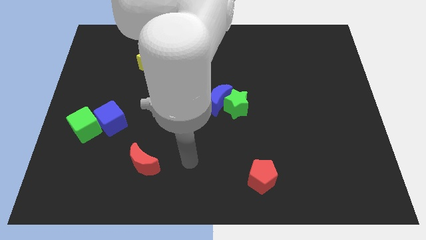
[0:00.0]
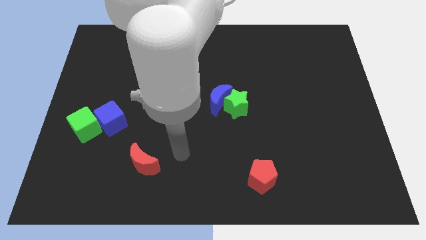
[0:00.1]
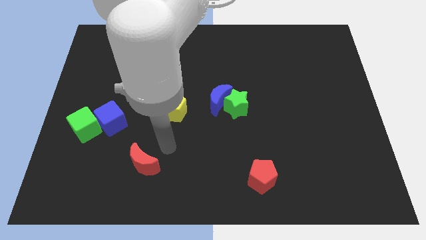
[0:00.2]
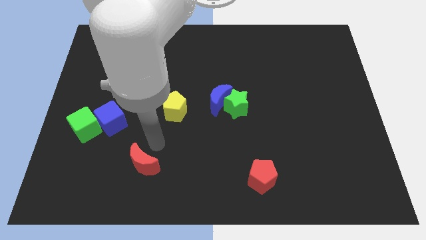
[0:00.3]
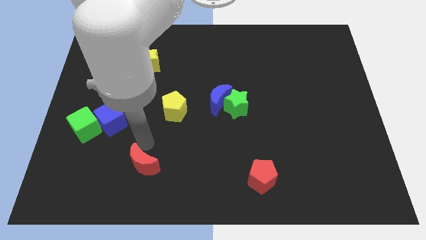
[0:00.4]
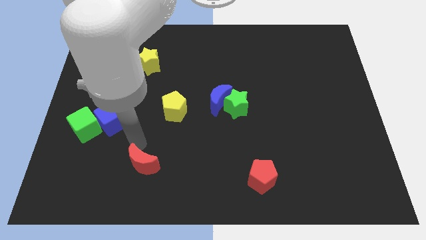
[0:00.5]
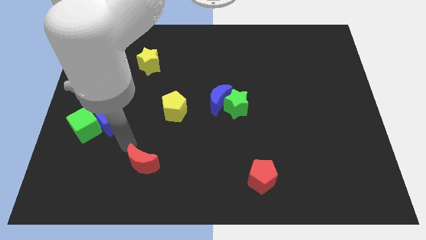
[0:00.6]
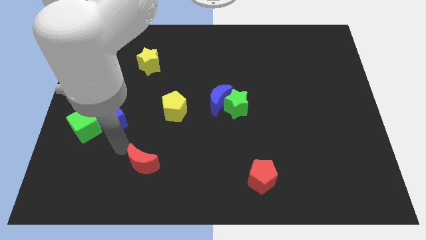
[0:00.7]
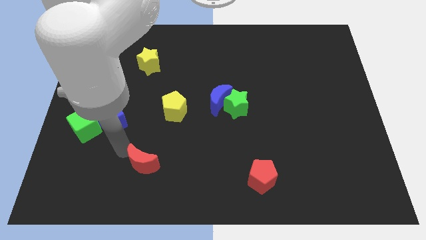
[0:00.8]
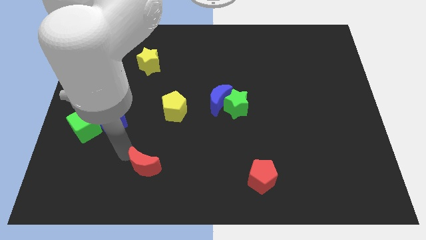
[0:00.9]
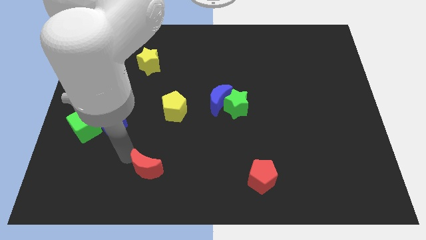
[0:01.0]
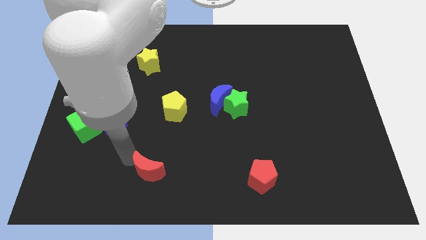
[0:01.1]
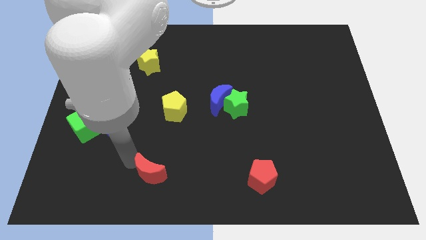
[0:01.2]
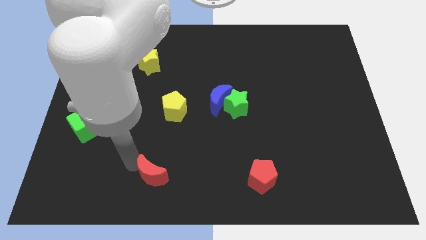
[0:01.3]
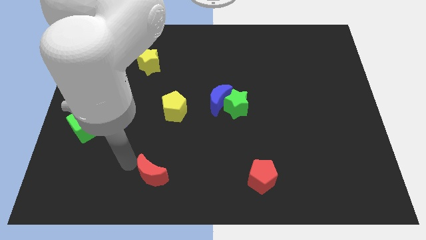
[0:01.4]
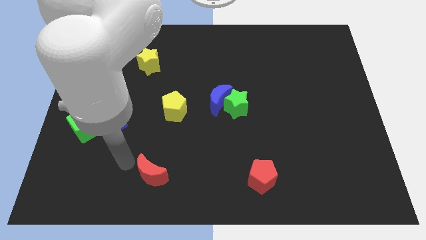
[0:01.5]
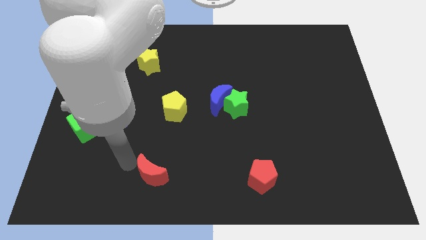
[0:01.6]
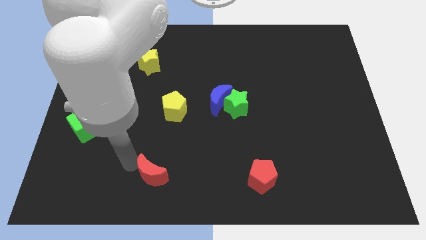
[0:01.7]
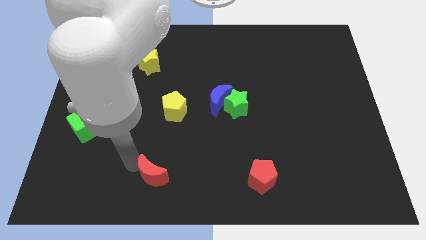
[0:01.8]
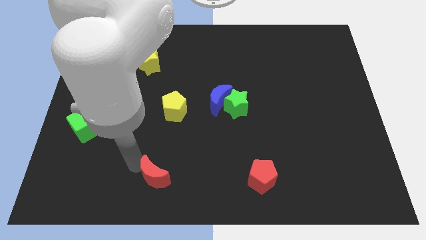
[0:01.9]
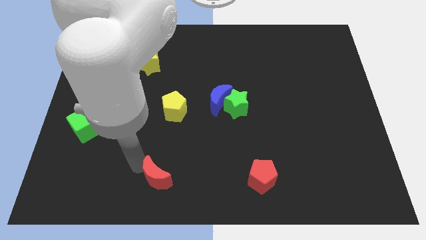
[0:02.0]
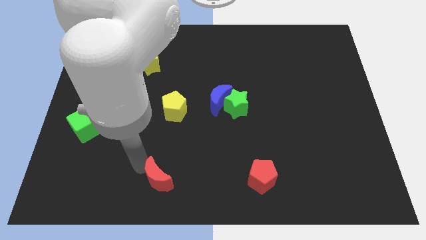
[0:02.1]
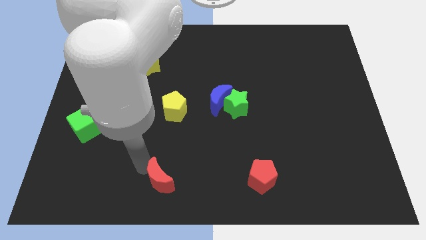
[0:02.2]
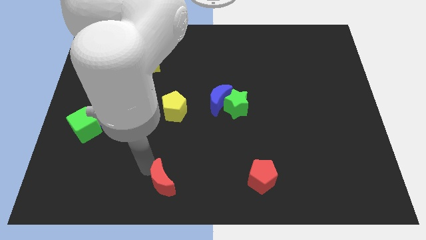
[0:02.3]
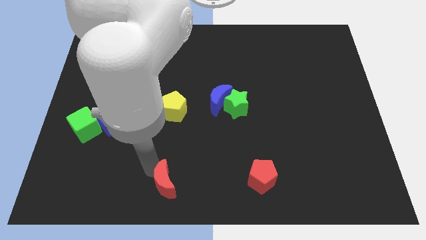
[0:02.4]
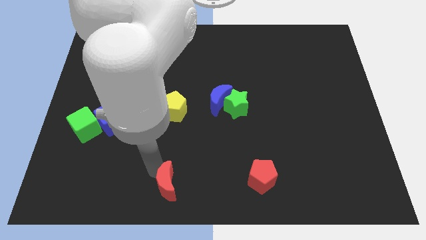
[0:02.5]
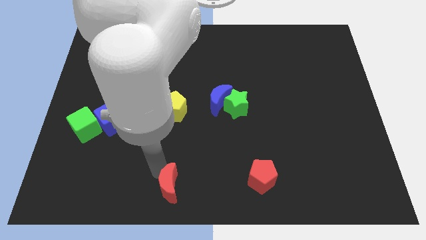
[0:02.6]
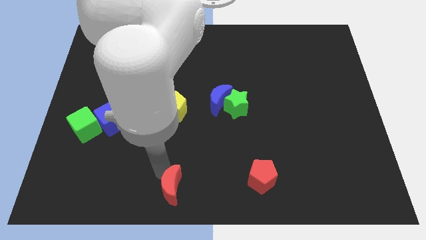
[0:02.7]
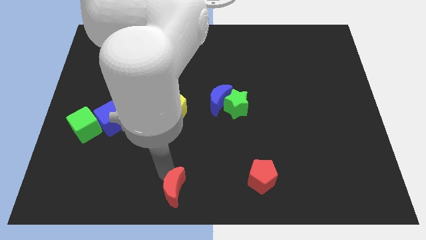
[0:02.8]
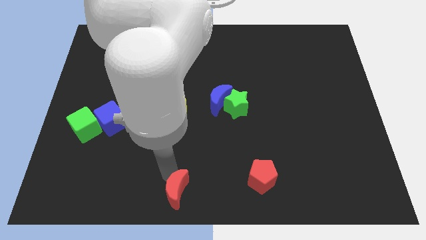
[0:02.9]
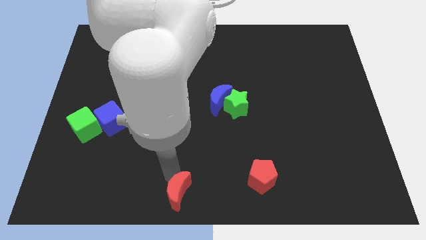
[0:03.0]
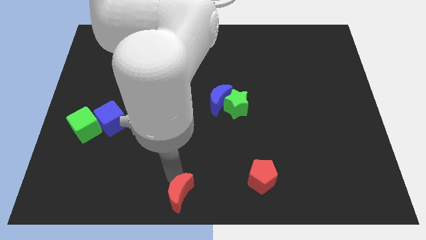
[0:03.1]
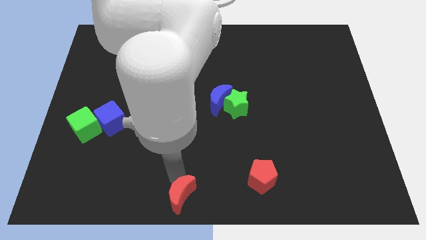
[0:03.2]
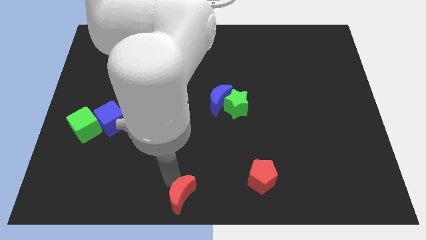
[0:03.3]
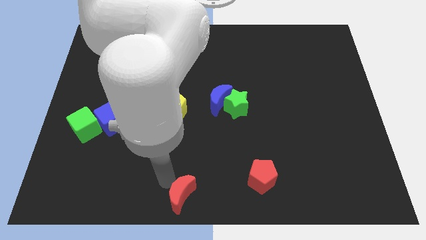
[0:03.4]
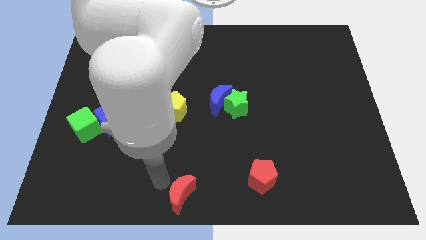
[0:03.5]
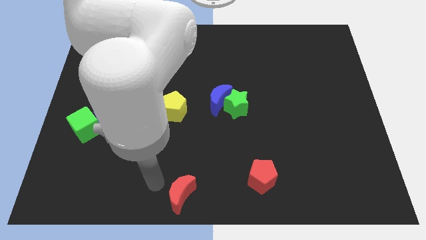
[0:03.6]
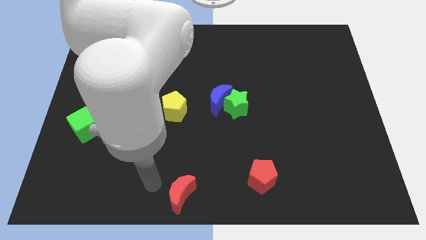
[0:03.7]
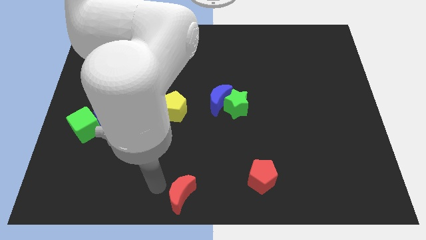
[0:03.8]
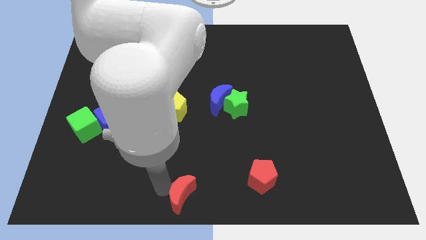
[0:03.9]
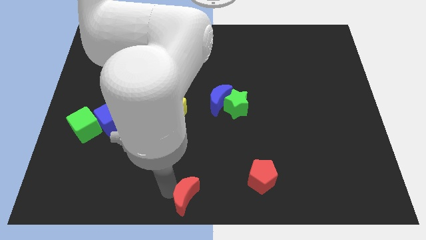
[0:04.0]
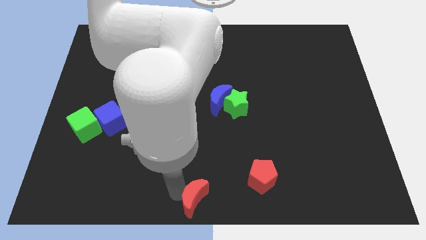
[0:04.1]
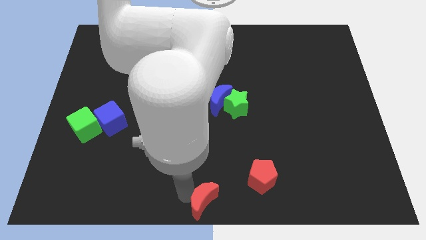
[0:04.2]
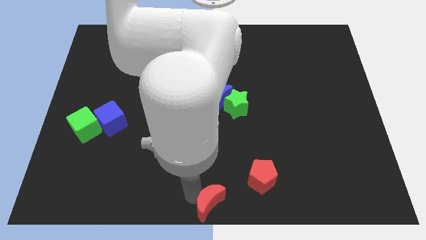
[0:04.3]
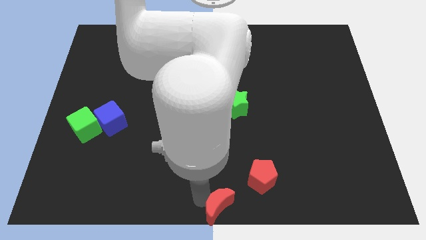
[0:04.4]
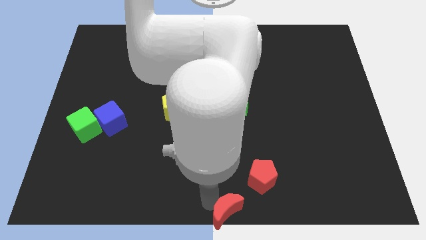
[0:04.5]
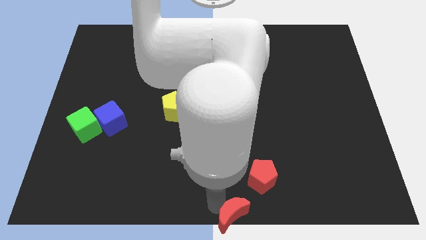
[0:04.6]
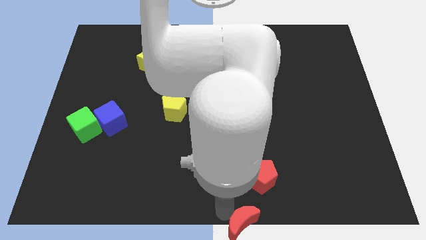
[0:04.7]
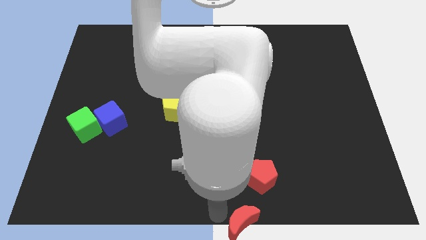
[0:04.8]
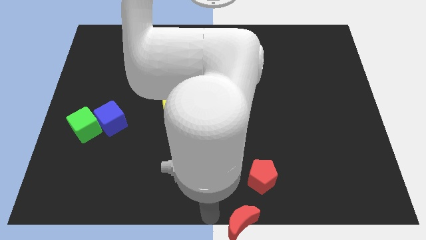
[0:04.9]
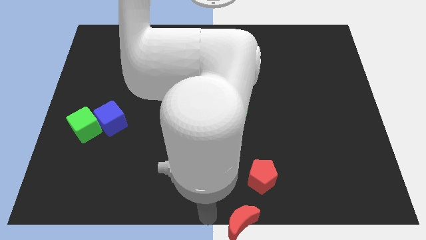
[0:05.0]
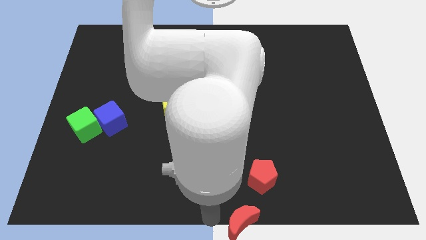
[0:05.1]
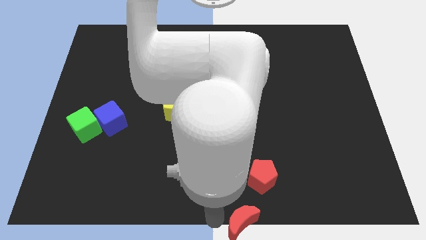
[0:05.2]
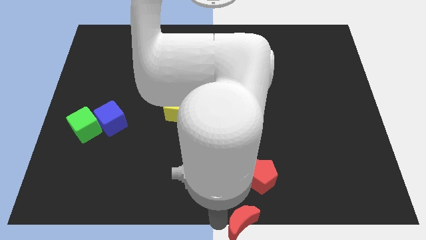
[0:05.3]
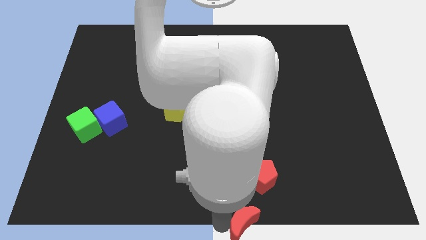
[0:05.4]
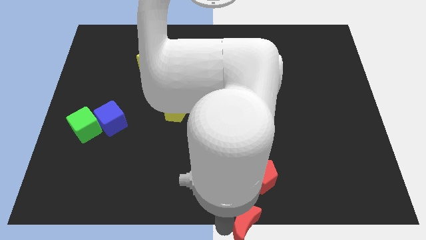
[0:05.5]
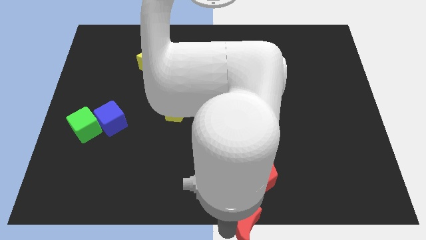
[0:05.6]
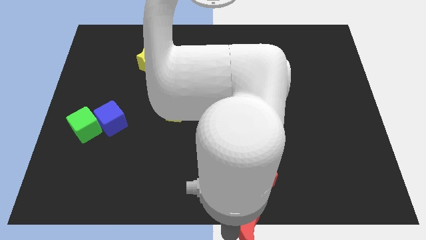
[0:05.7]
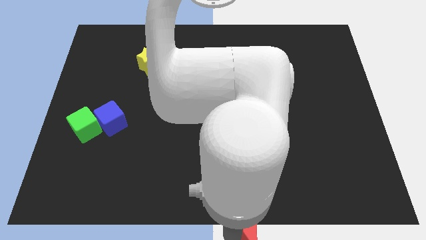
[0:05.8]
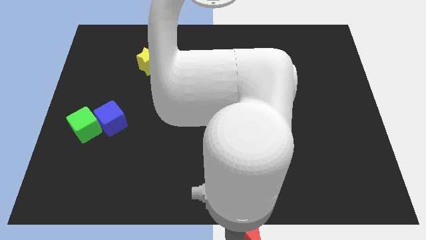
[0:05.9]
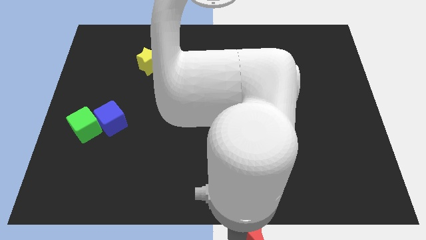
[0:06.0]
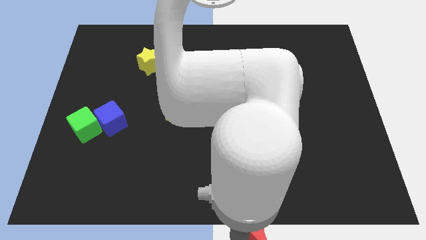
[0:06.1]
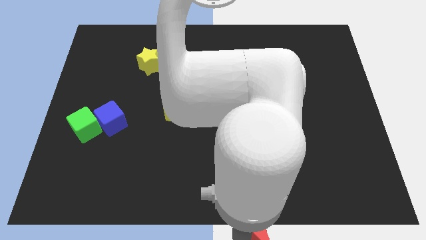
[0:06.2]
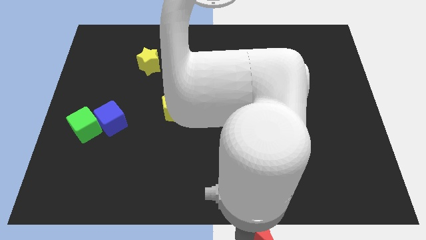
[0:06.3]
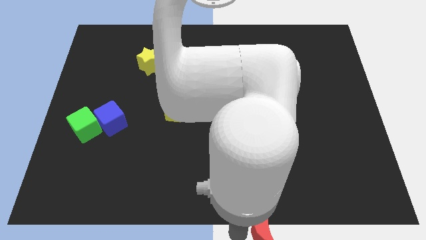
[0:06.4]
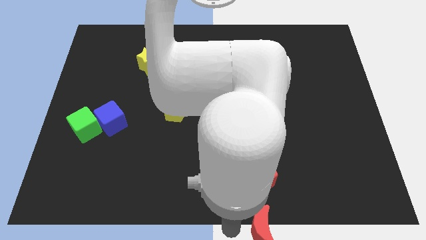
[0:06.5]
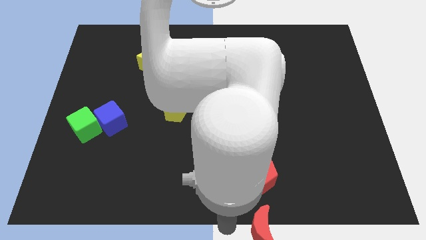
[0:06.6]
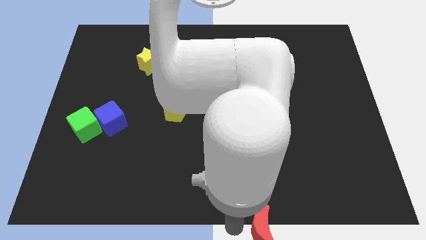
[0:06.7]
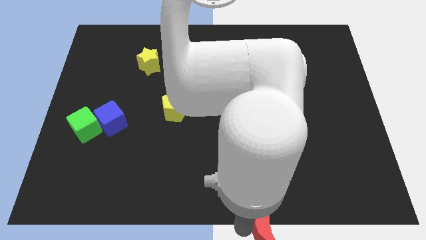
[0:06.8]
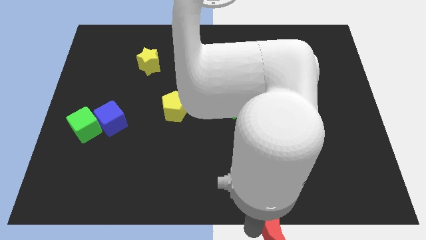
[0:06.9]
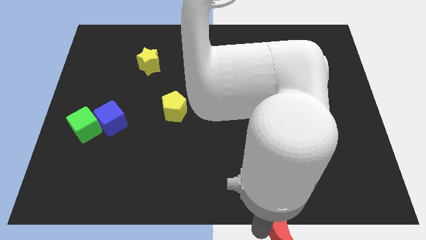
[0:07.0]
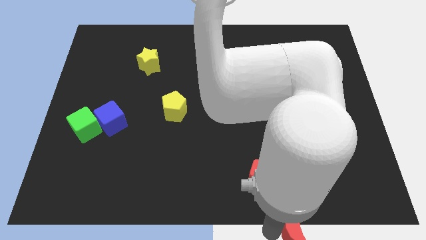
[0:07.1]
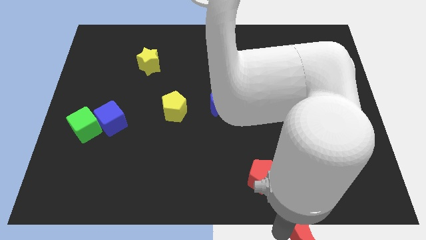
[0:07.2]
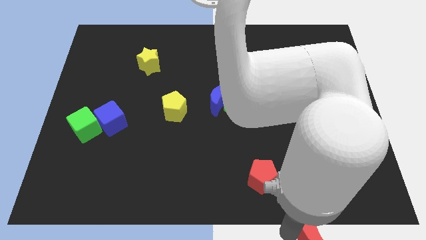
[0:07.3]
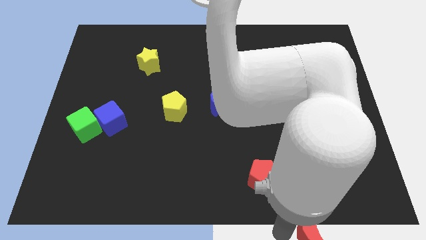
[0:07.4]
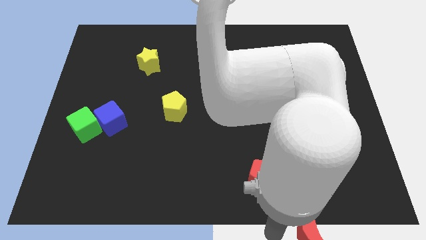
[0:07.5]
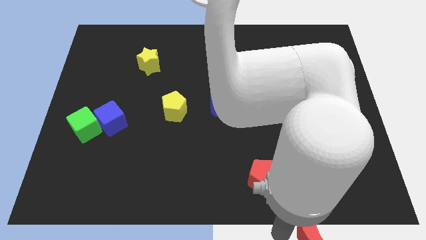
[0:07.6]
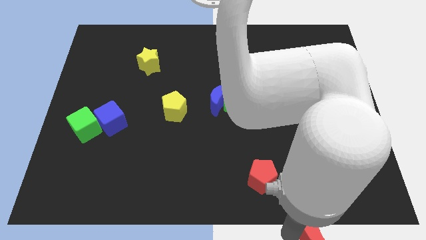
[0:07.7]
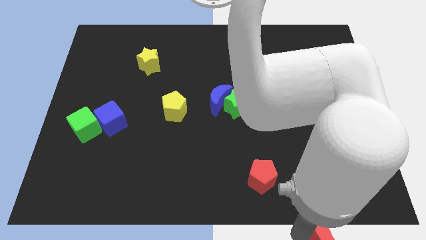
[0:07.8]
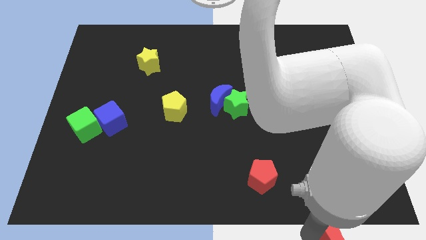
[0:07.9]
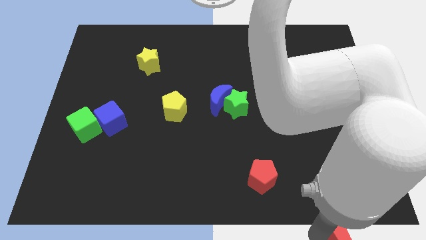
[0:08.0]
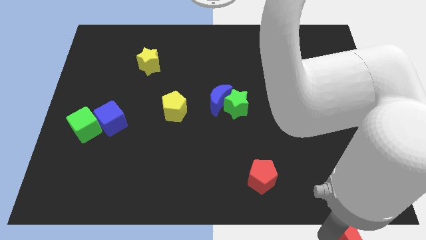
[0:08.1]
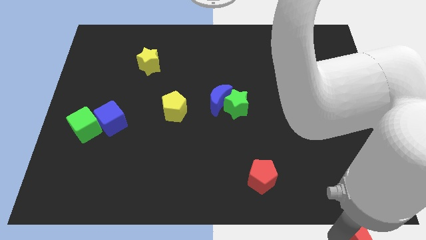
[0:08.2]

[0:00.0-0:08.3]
put the red moon to the lower right corner
